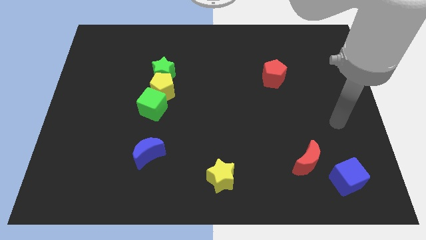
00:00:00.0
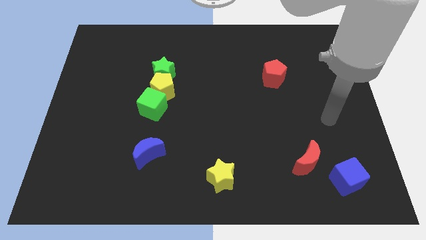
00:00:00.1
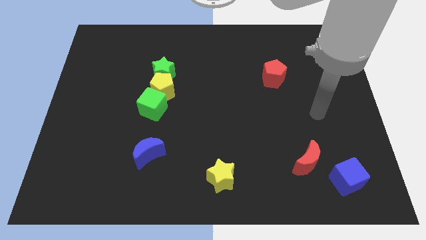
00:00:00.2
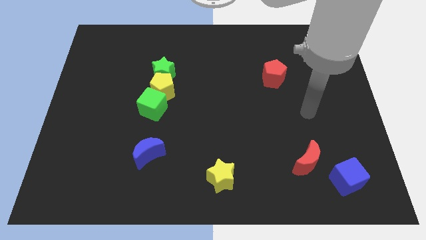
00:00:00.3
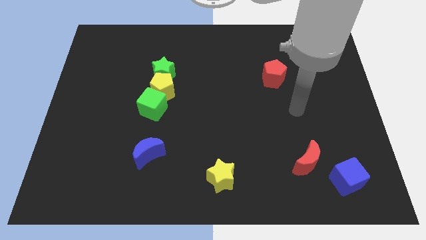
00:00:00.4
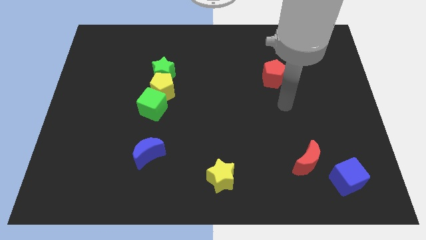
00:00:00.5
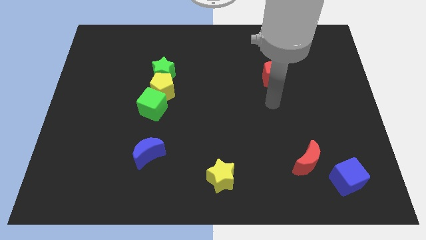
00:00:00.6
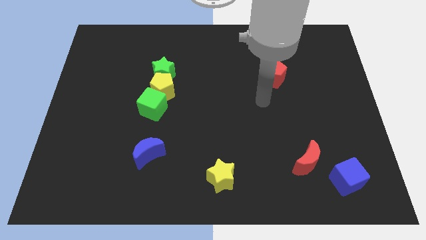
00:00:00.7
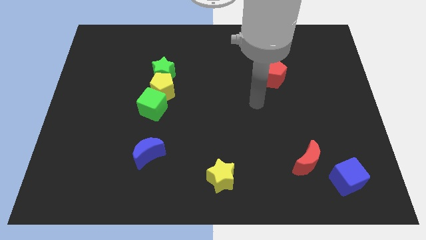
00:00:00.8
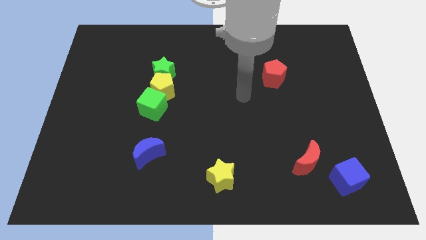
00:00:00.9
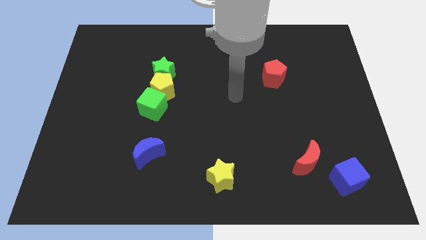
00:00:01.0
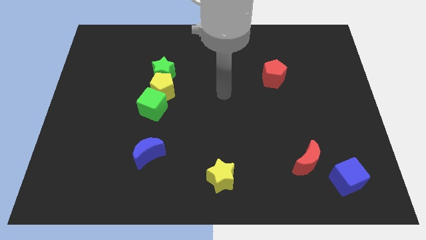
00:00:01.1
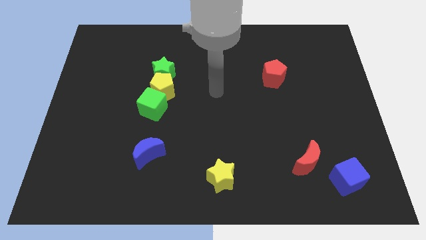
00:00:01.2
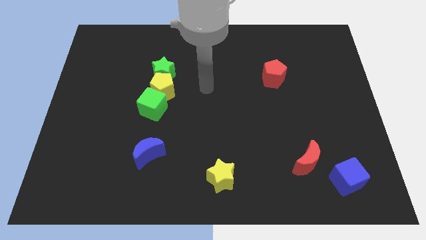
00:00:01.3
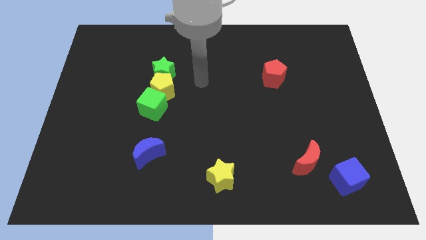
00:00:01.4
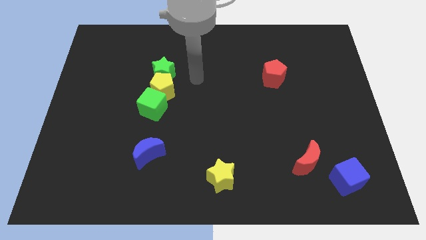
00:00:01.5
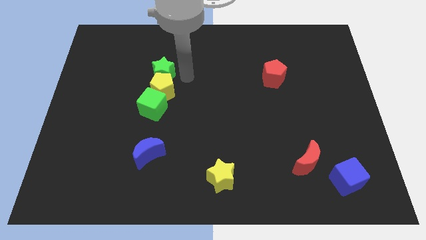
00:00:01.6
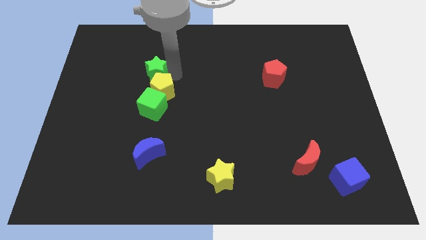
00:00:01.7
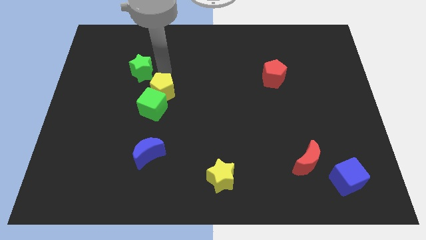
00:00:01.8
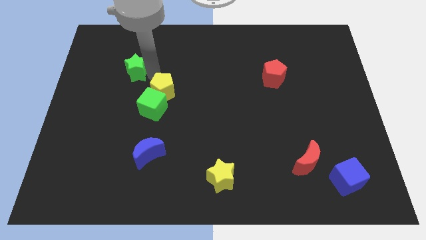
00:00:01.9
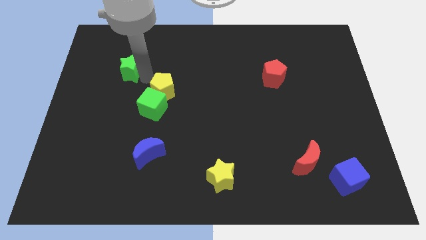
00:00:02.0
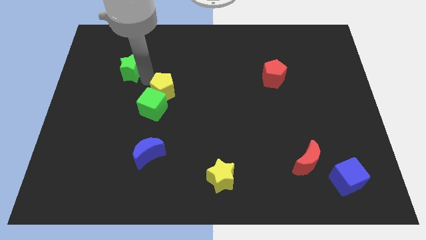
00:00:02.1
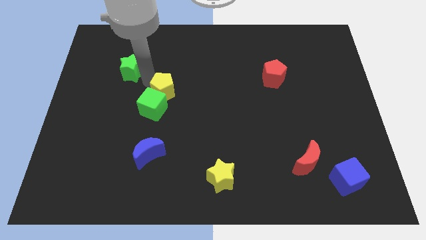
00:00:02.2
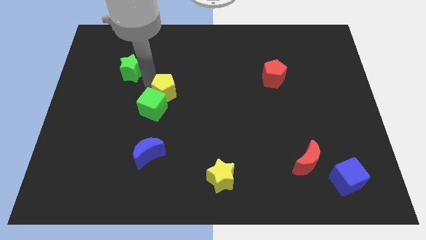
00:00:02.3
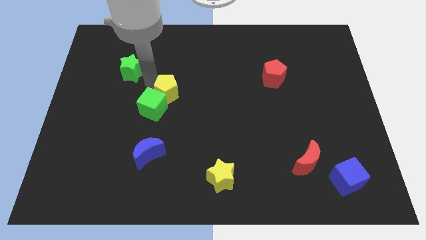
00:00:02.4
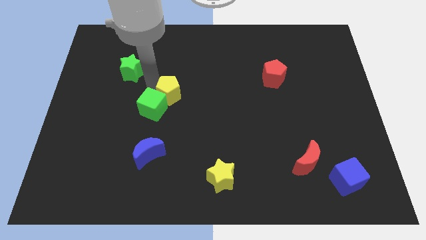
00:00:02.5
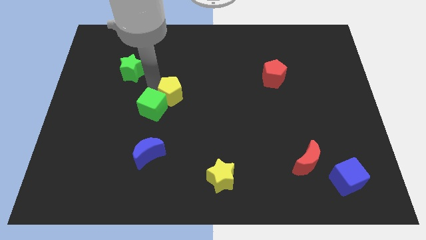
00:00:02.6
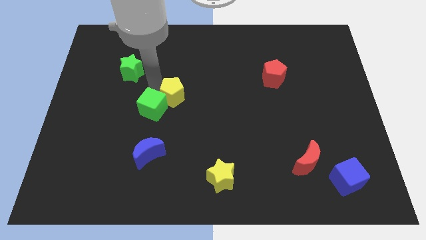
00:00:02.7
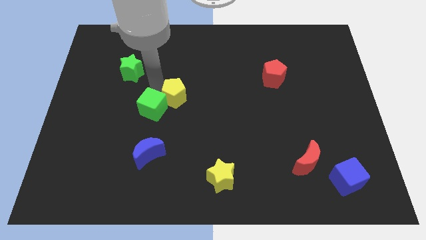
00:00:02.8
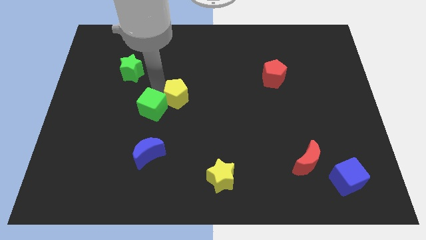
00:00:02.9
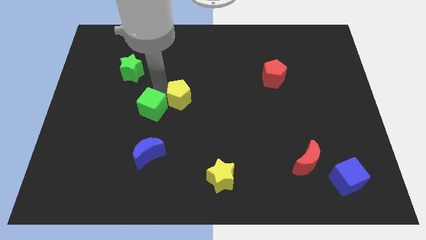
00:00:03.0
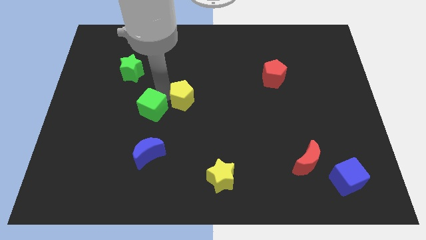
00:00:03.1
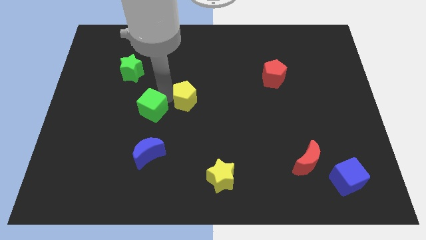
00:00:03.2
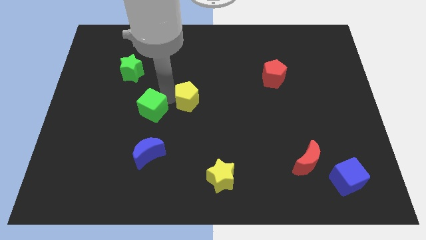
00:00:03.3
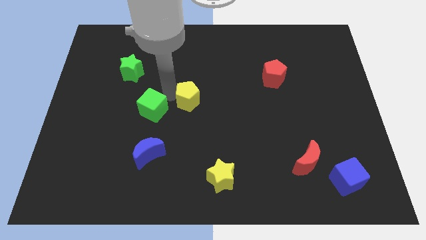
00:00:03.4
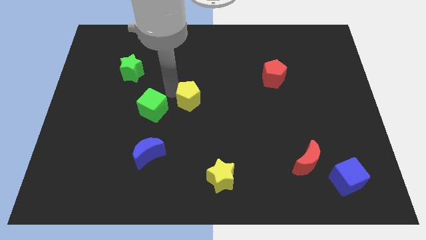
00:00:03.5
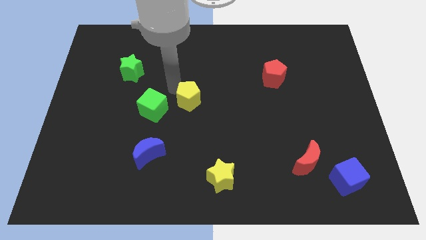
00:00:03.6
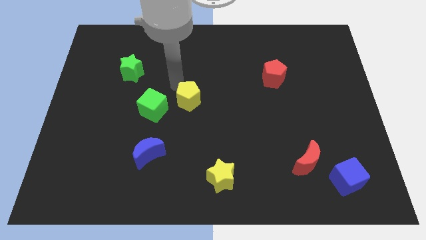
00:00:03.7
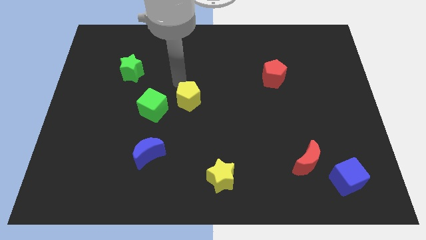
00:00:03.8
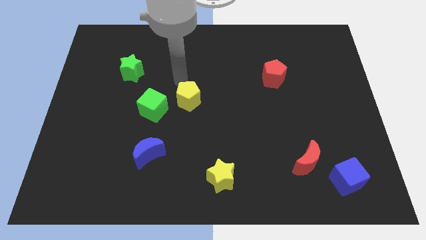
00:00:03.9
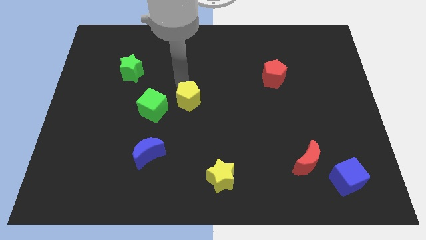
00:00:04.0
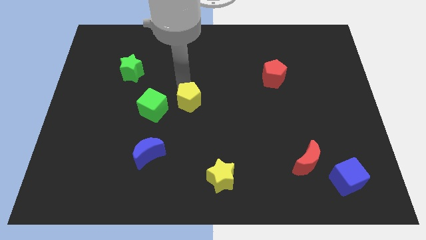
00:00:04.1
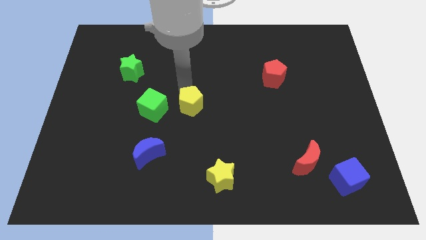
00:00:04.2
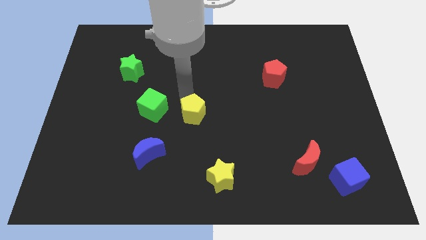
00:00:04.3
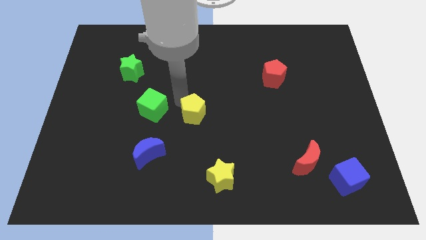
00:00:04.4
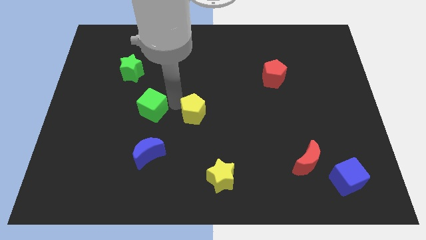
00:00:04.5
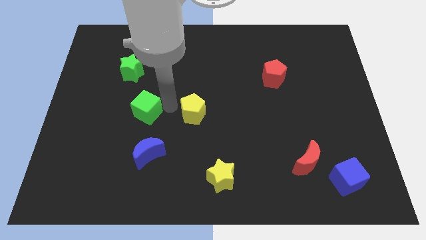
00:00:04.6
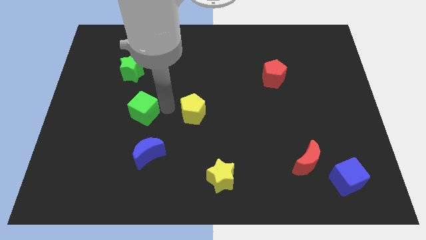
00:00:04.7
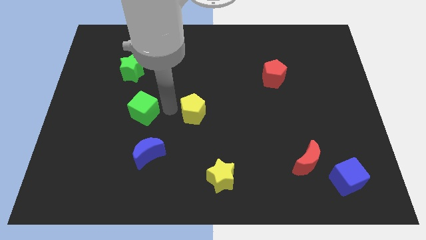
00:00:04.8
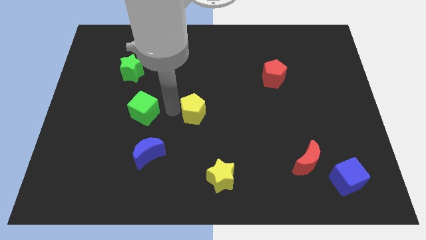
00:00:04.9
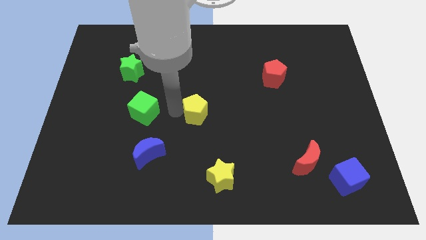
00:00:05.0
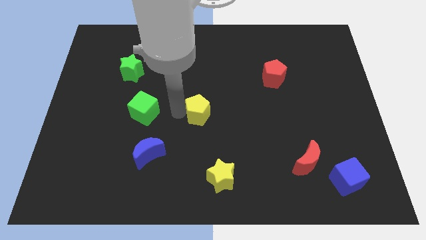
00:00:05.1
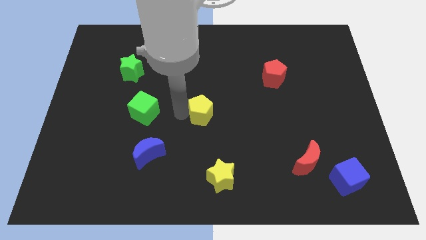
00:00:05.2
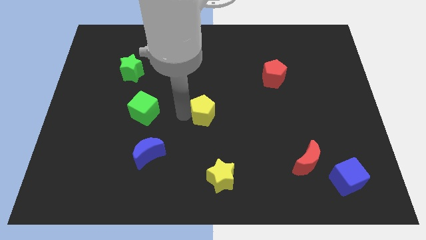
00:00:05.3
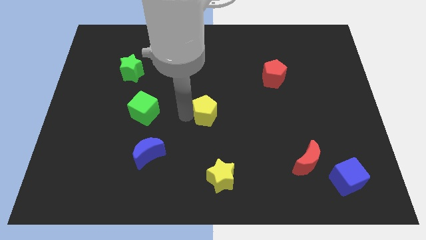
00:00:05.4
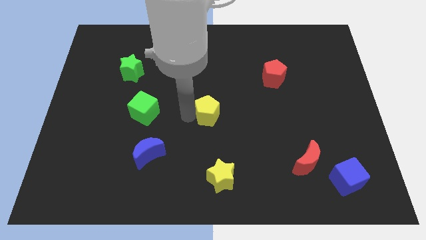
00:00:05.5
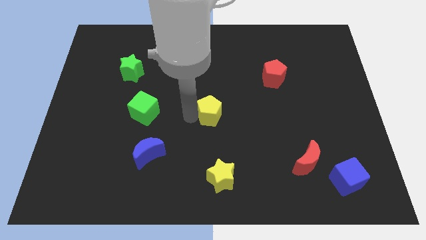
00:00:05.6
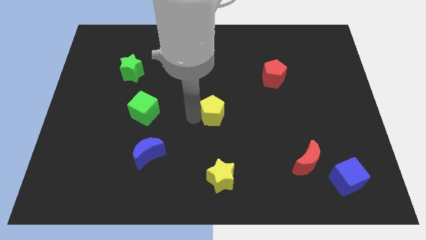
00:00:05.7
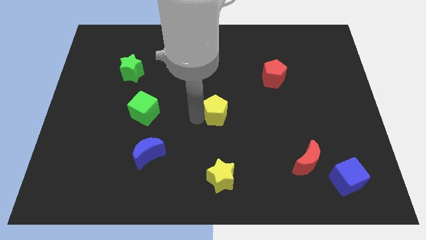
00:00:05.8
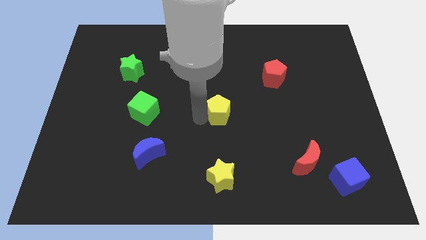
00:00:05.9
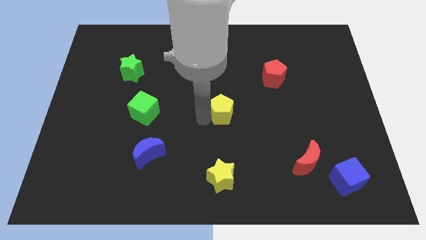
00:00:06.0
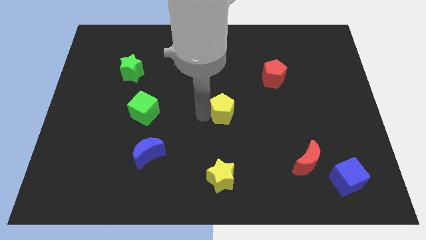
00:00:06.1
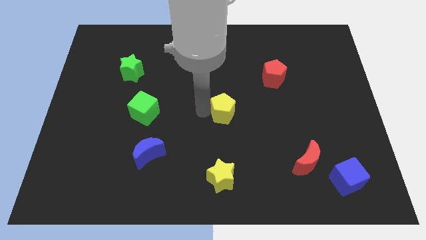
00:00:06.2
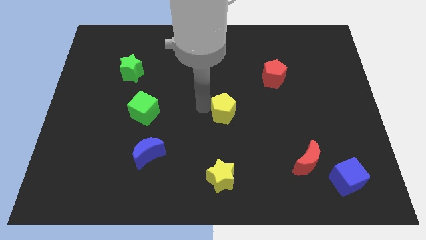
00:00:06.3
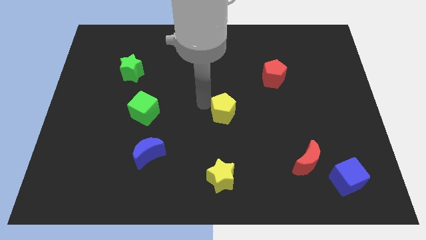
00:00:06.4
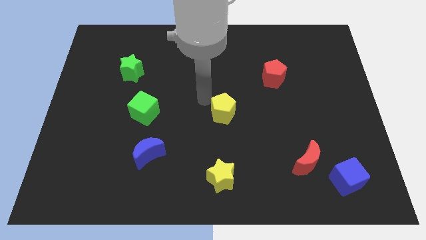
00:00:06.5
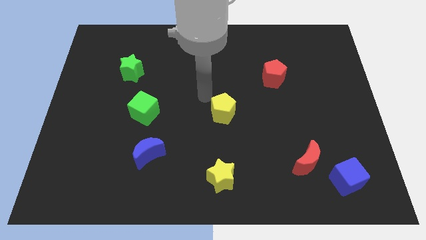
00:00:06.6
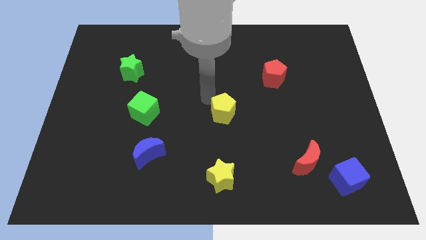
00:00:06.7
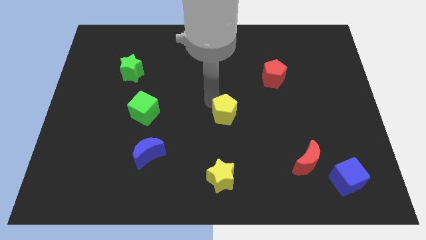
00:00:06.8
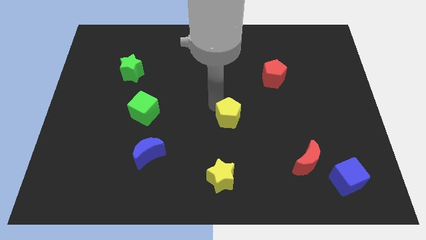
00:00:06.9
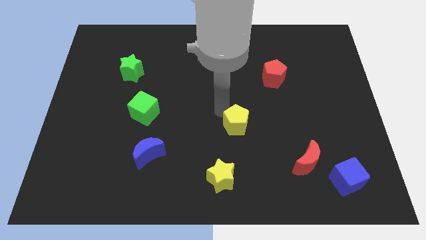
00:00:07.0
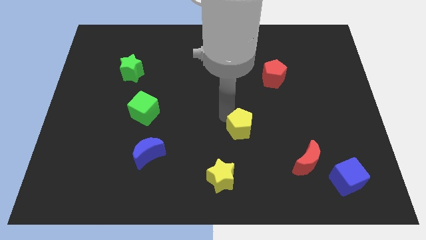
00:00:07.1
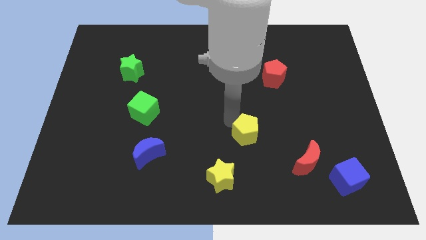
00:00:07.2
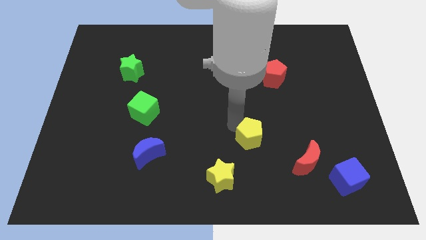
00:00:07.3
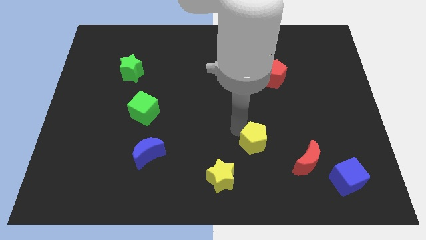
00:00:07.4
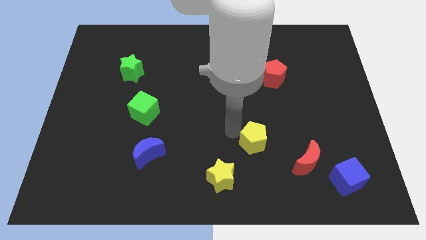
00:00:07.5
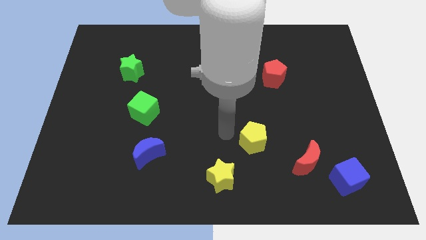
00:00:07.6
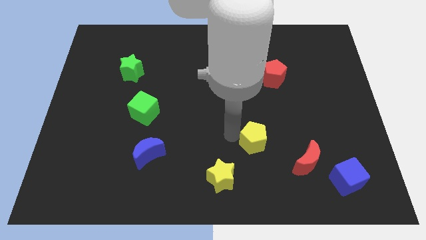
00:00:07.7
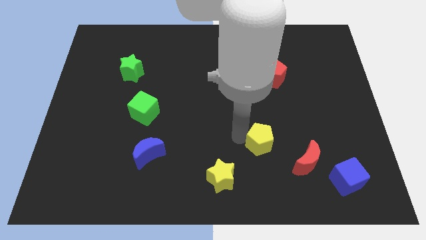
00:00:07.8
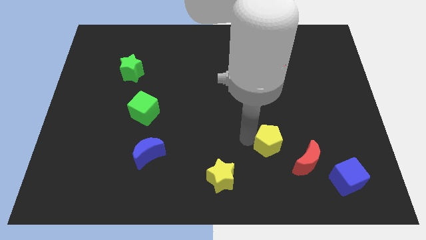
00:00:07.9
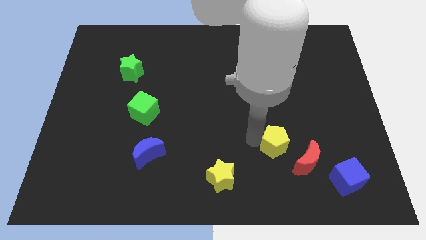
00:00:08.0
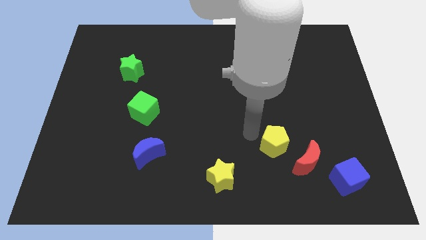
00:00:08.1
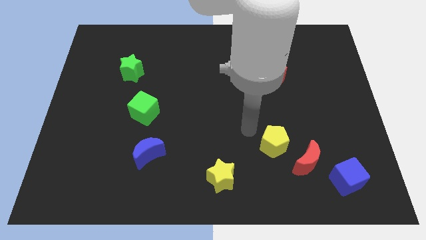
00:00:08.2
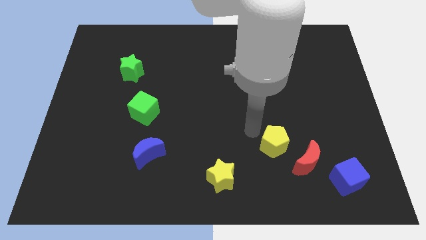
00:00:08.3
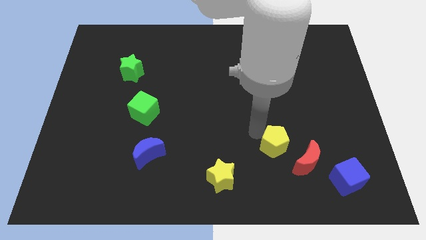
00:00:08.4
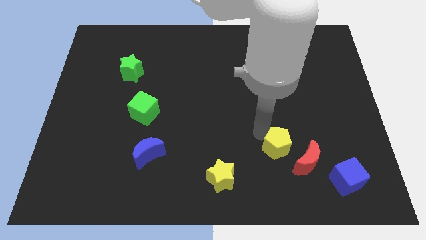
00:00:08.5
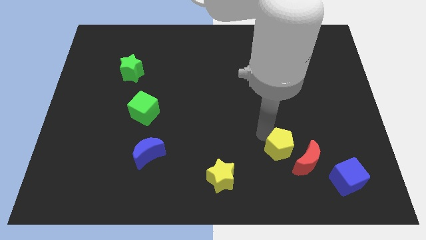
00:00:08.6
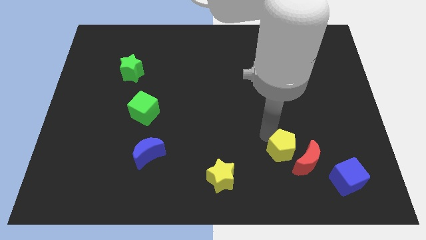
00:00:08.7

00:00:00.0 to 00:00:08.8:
push the yellow pentagon close to the red moon
